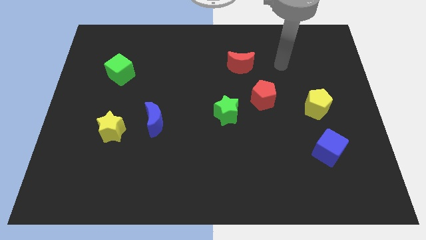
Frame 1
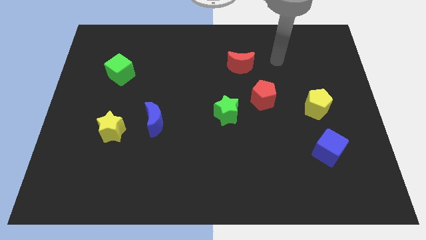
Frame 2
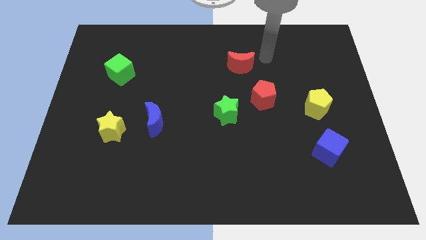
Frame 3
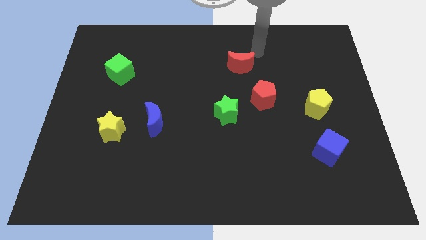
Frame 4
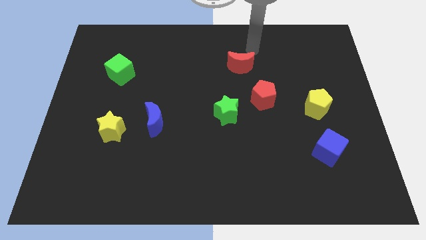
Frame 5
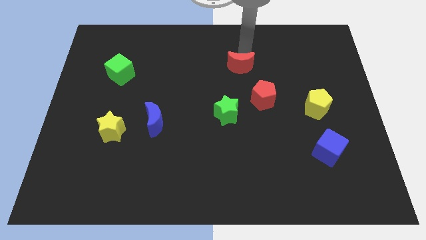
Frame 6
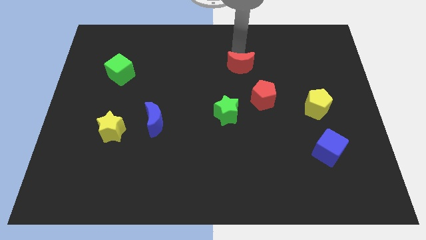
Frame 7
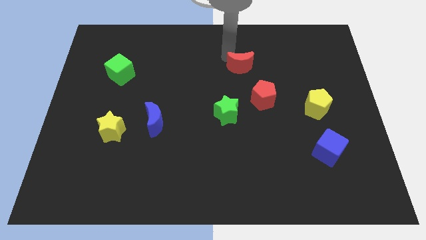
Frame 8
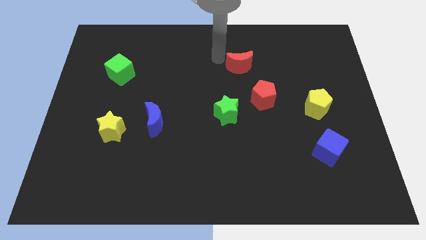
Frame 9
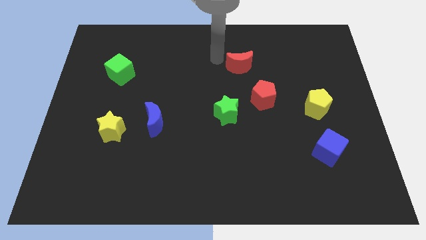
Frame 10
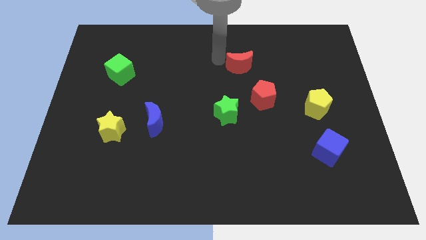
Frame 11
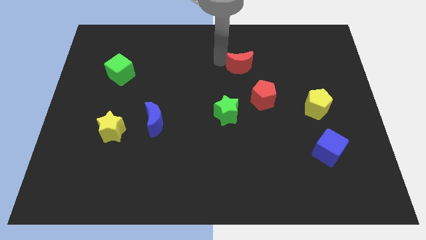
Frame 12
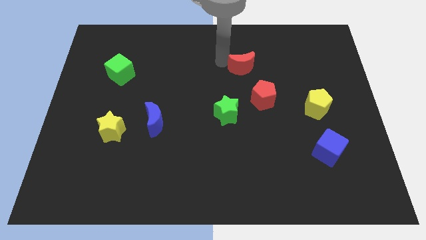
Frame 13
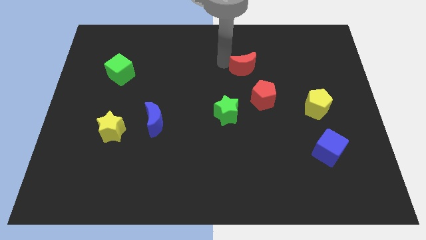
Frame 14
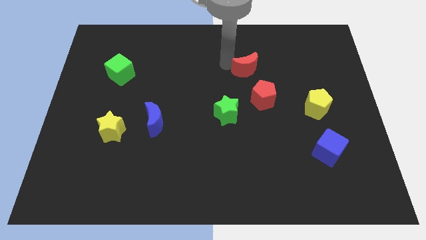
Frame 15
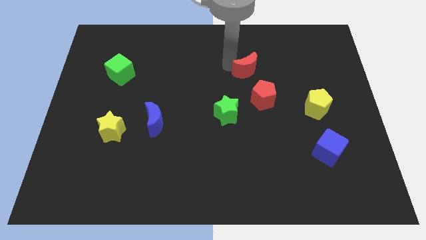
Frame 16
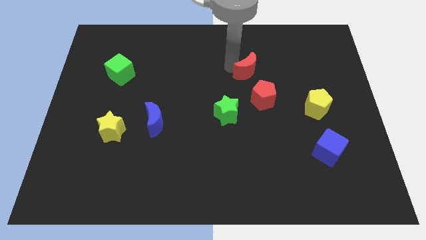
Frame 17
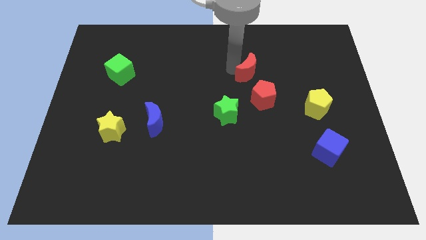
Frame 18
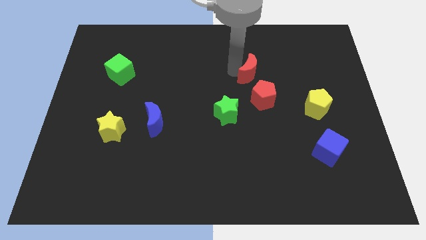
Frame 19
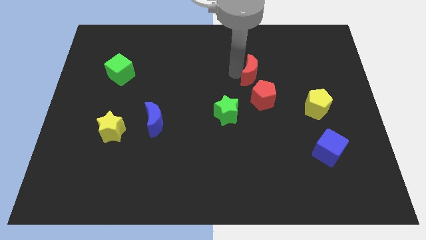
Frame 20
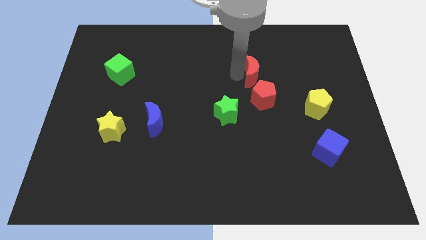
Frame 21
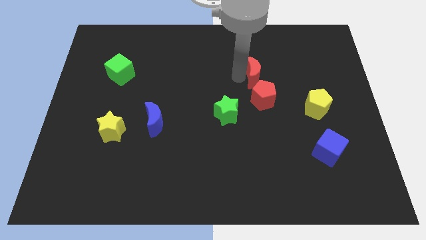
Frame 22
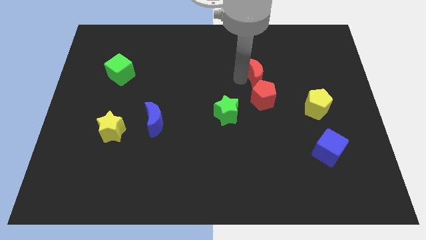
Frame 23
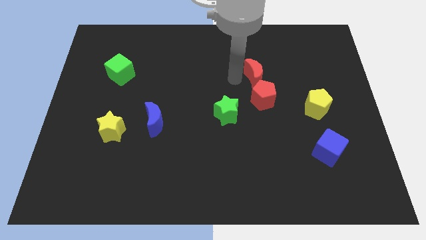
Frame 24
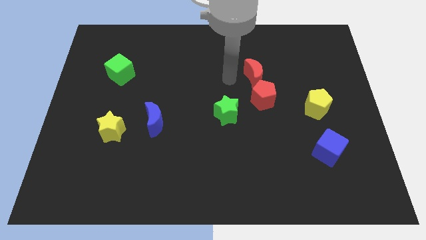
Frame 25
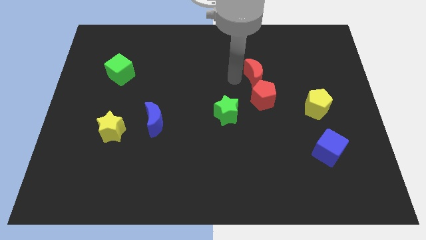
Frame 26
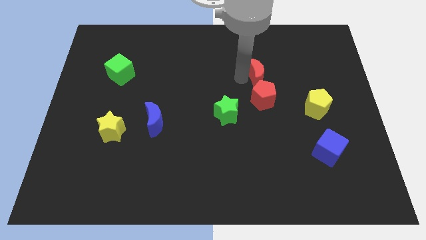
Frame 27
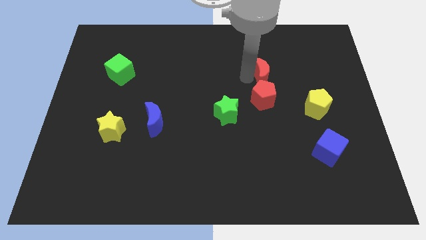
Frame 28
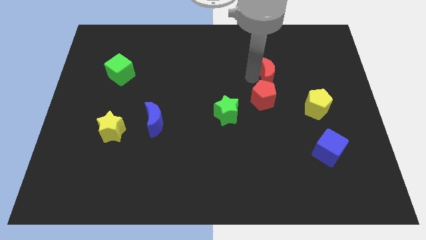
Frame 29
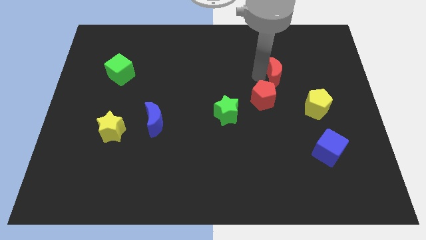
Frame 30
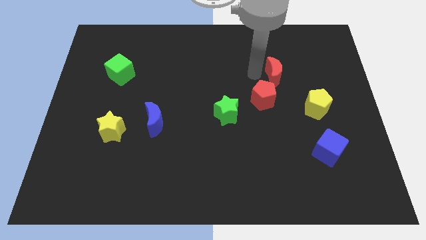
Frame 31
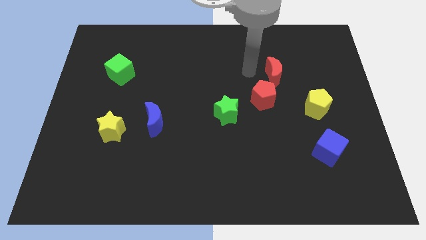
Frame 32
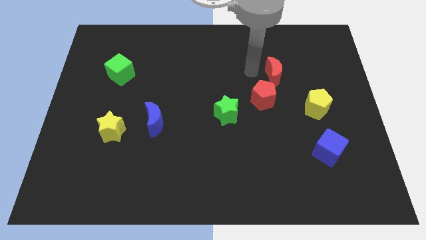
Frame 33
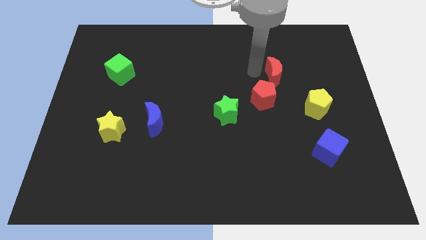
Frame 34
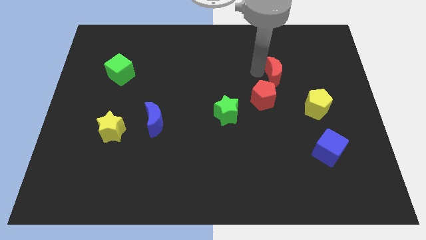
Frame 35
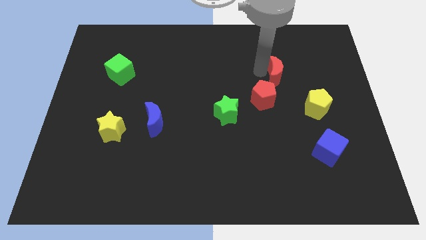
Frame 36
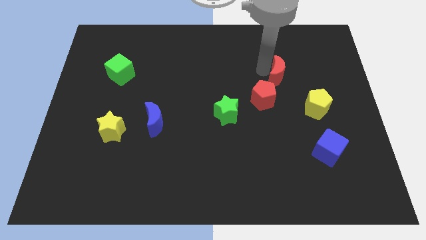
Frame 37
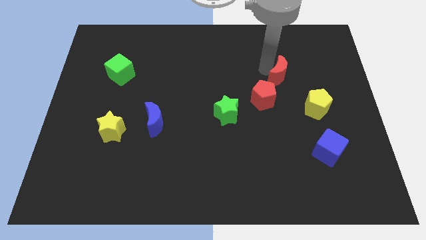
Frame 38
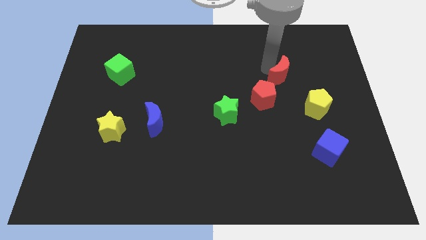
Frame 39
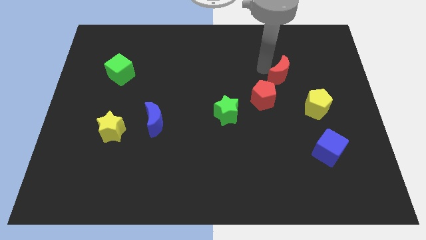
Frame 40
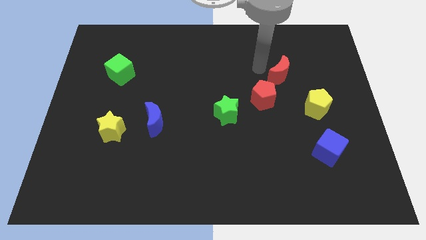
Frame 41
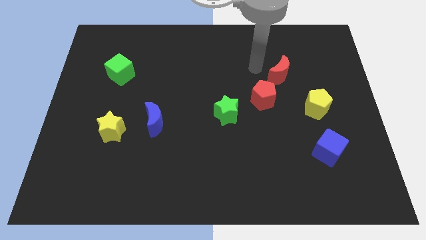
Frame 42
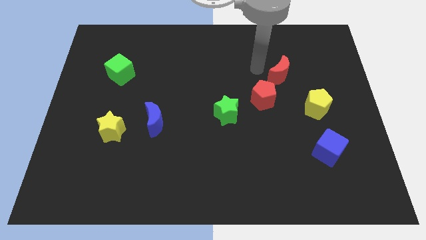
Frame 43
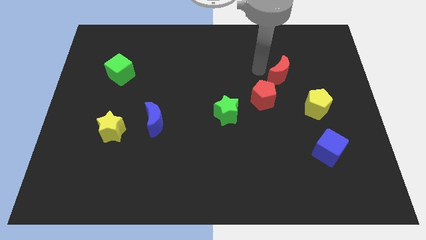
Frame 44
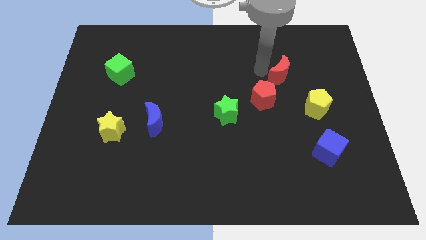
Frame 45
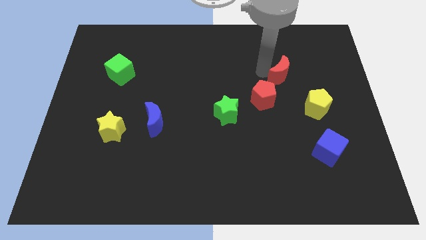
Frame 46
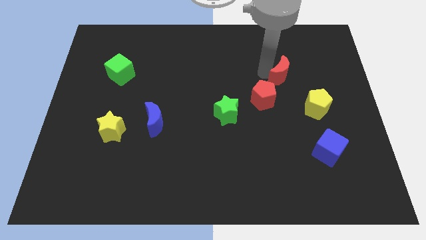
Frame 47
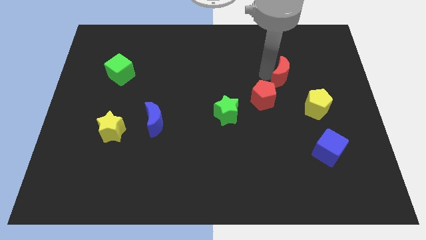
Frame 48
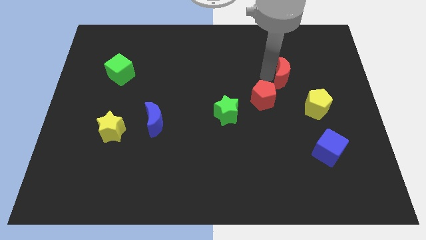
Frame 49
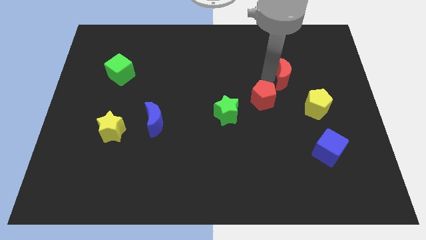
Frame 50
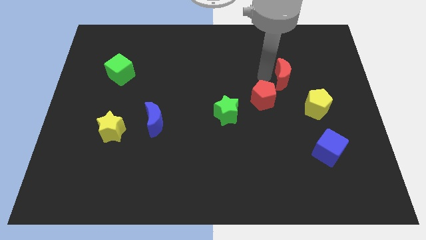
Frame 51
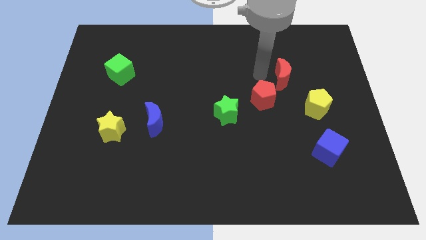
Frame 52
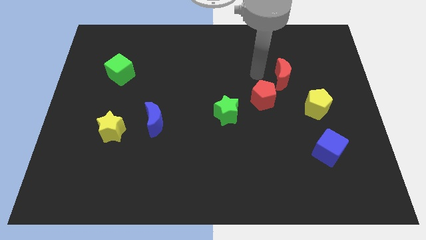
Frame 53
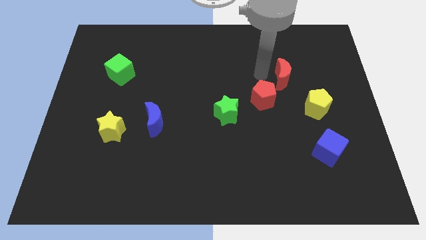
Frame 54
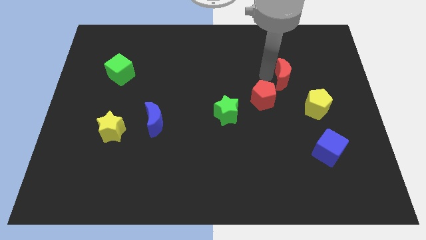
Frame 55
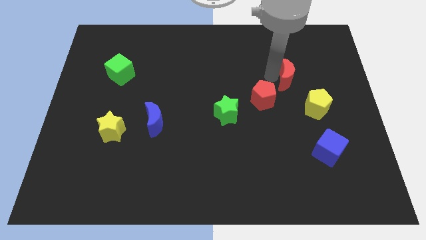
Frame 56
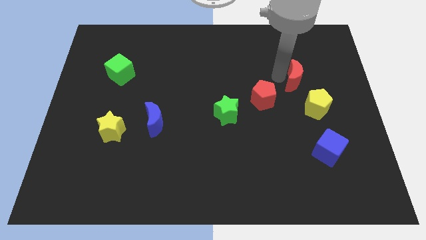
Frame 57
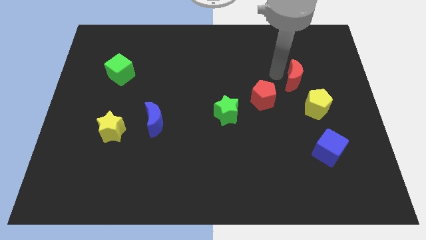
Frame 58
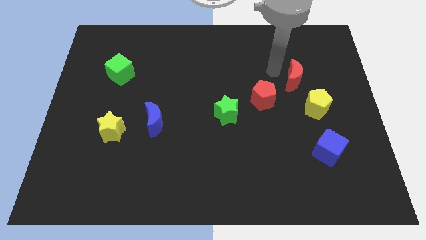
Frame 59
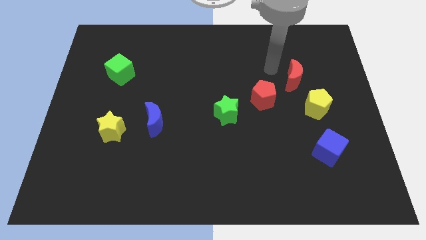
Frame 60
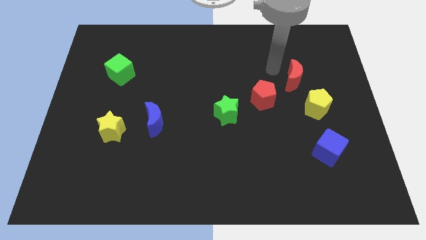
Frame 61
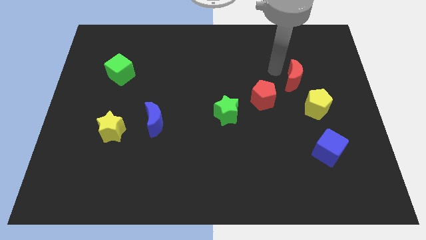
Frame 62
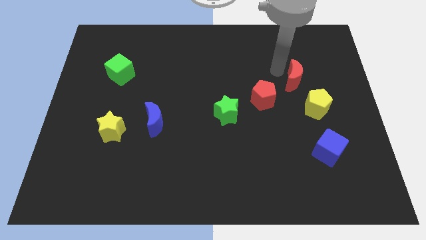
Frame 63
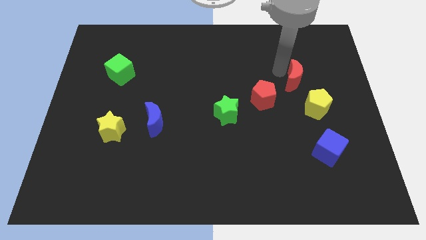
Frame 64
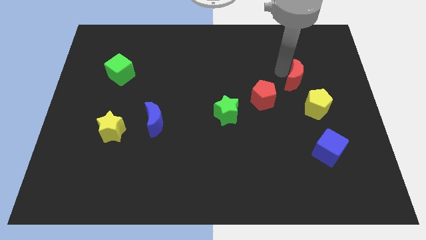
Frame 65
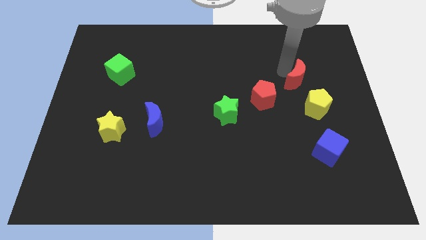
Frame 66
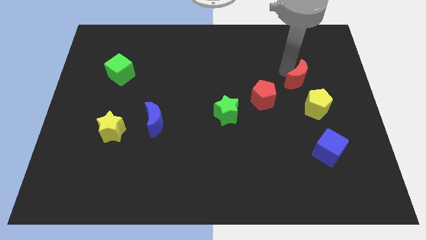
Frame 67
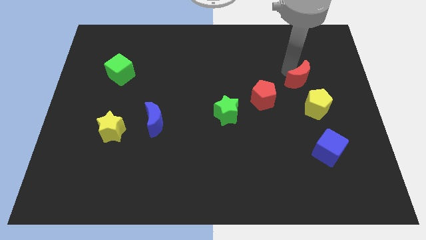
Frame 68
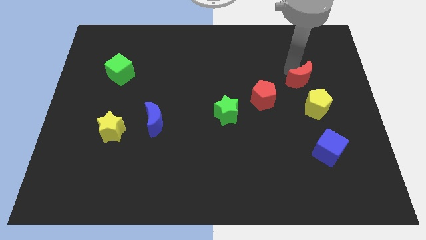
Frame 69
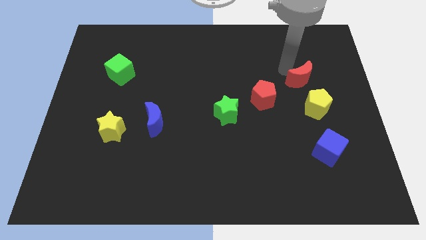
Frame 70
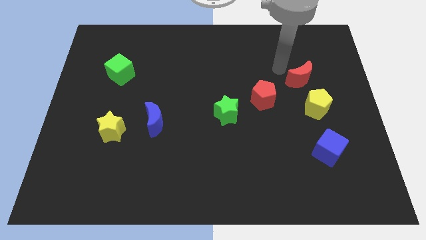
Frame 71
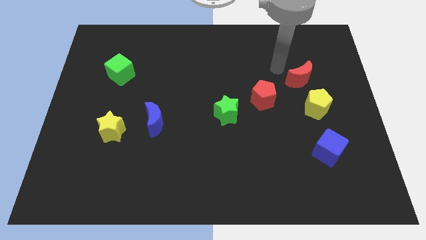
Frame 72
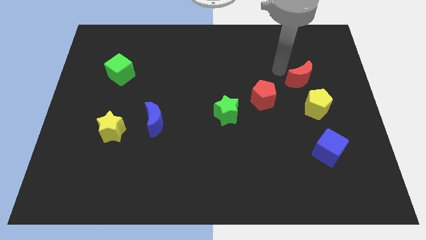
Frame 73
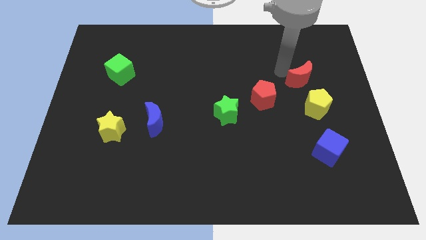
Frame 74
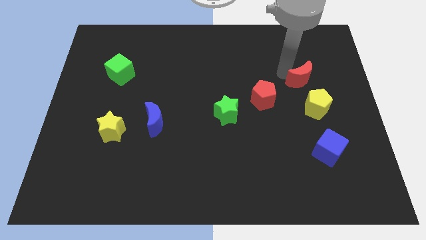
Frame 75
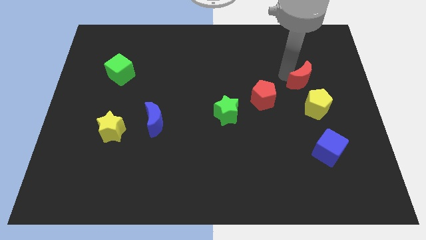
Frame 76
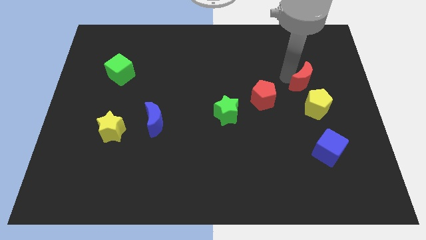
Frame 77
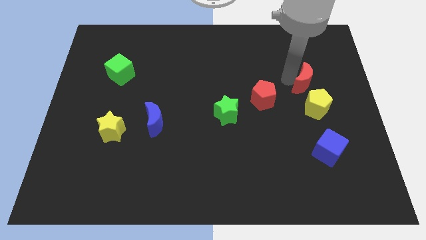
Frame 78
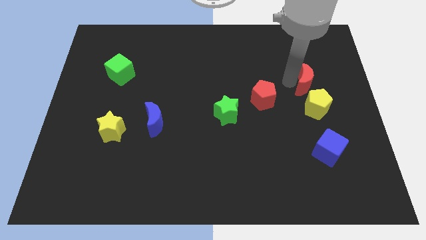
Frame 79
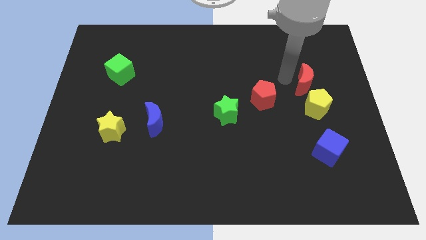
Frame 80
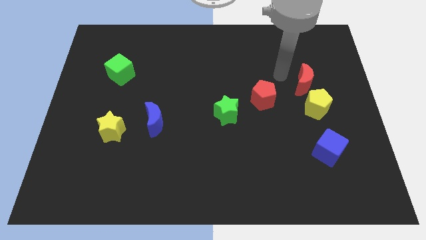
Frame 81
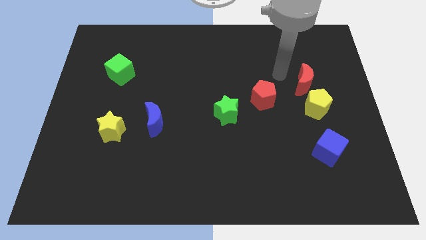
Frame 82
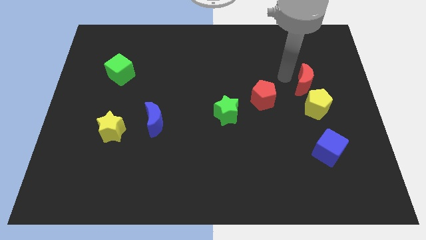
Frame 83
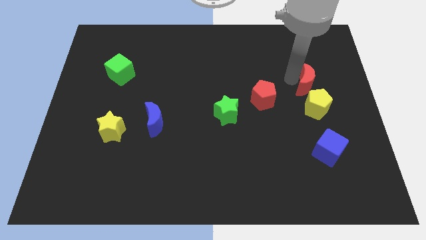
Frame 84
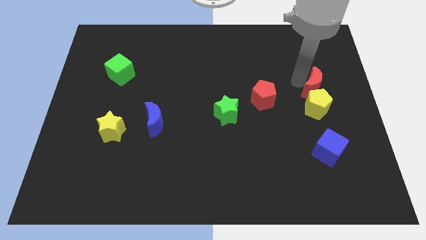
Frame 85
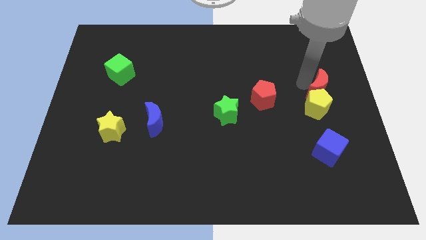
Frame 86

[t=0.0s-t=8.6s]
move the red moon to the right side
